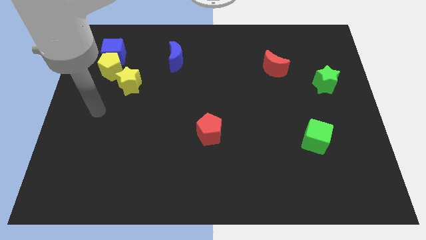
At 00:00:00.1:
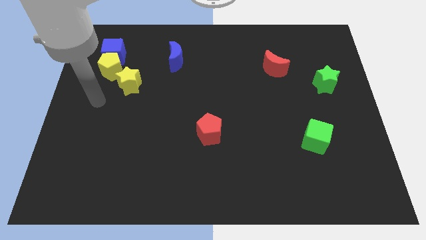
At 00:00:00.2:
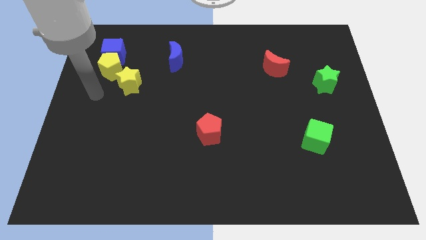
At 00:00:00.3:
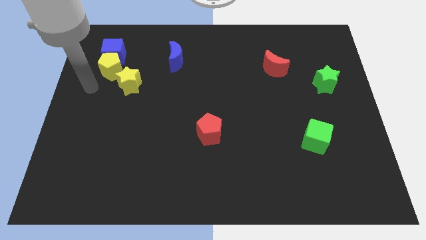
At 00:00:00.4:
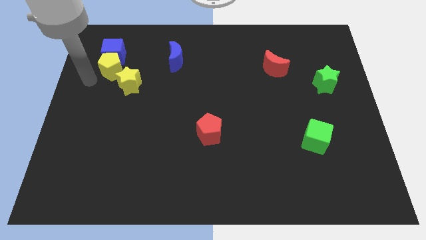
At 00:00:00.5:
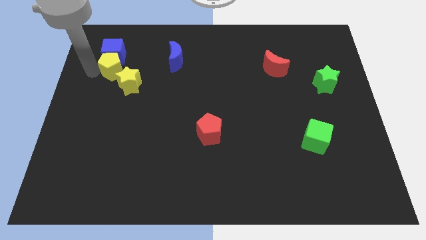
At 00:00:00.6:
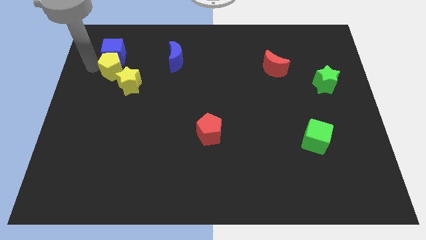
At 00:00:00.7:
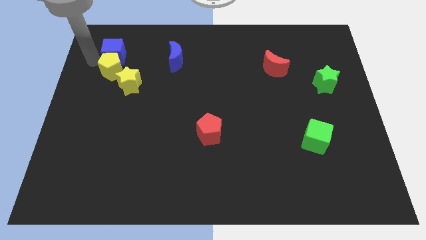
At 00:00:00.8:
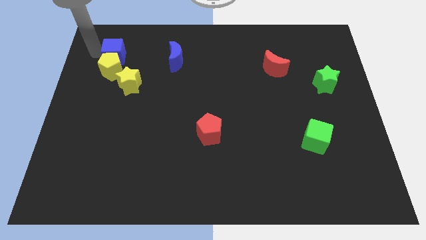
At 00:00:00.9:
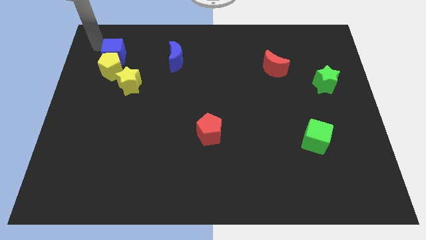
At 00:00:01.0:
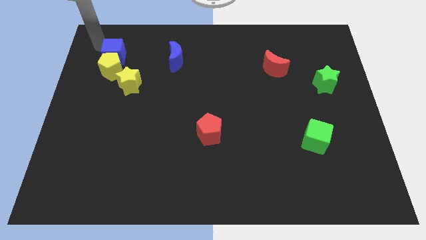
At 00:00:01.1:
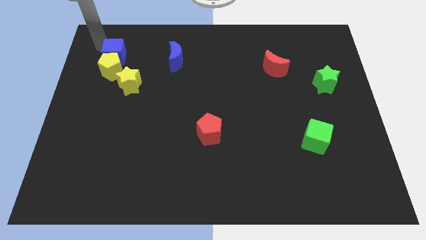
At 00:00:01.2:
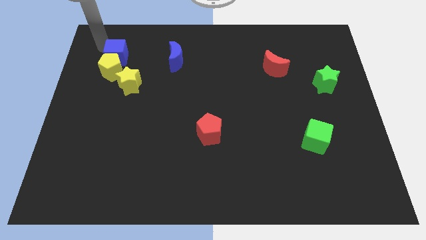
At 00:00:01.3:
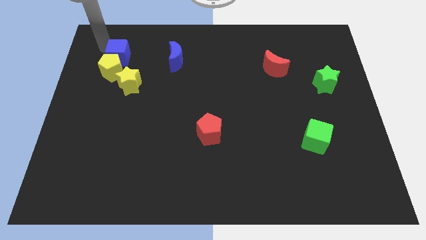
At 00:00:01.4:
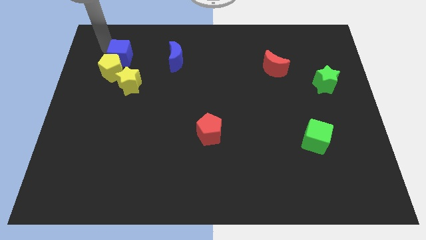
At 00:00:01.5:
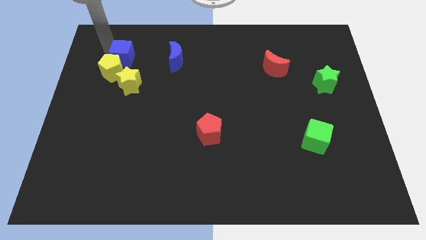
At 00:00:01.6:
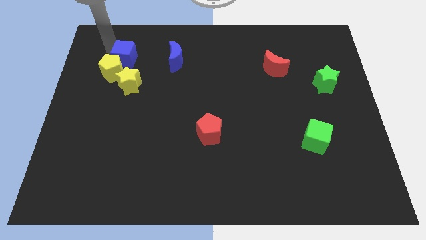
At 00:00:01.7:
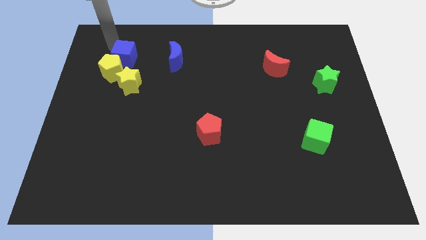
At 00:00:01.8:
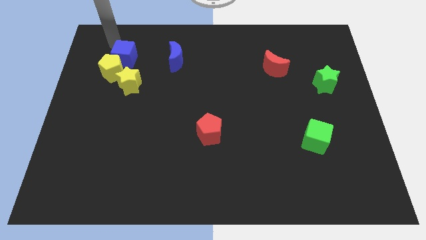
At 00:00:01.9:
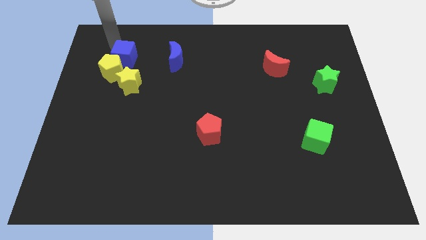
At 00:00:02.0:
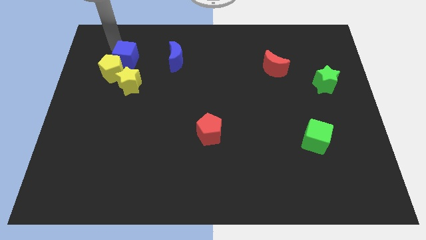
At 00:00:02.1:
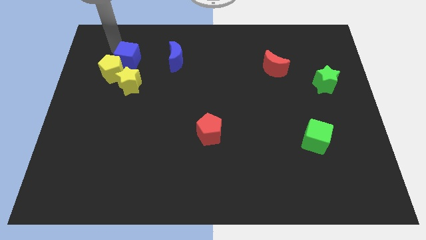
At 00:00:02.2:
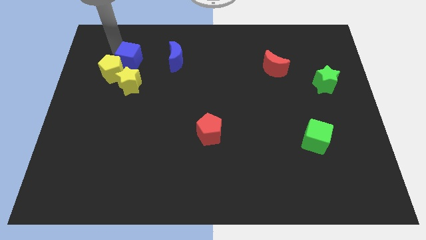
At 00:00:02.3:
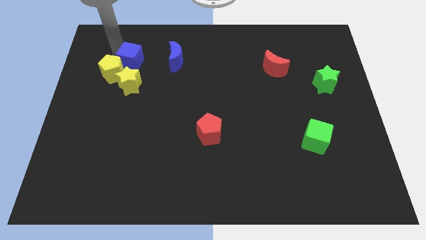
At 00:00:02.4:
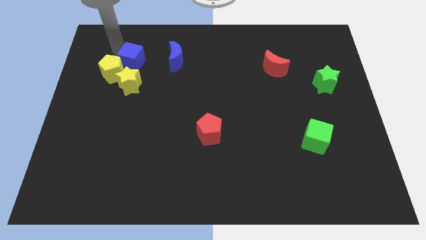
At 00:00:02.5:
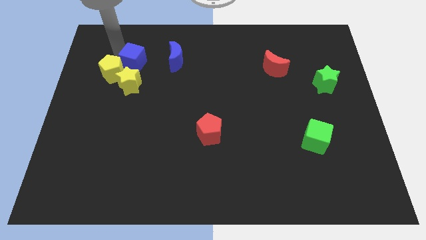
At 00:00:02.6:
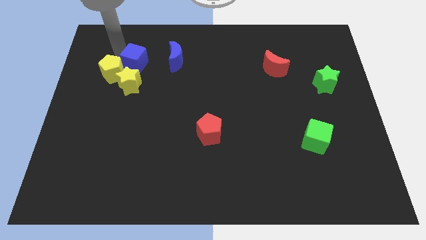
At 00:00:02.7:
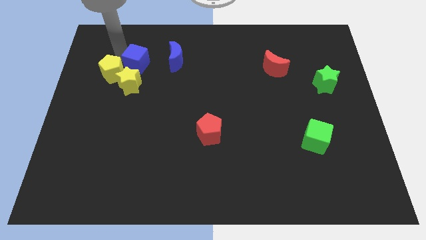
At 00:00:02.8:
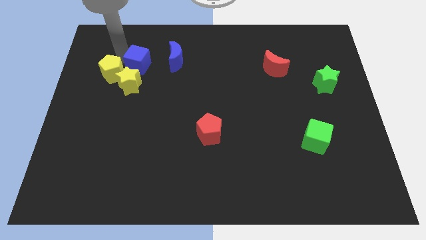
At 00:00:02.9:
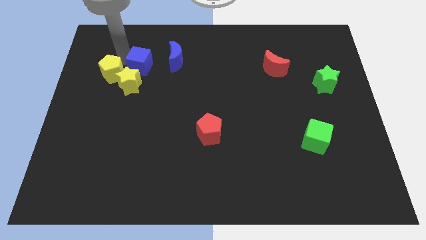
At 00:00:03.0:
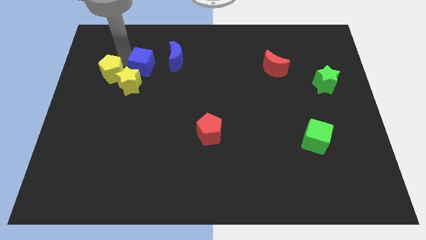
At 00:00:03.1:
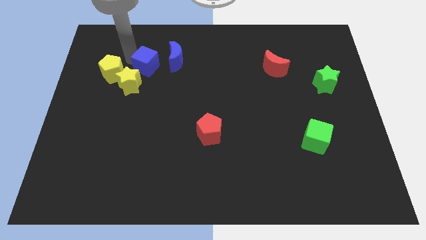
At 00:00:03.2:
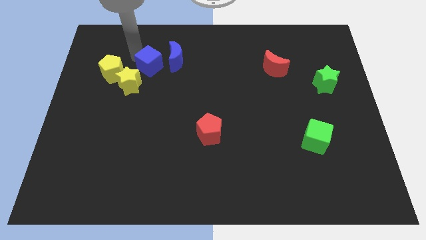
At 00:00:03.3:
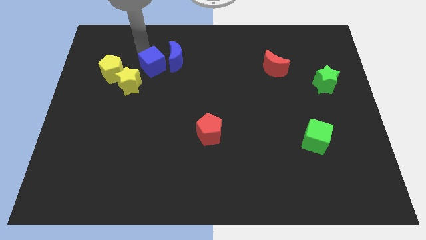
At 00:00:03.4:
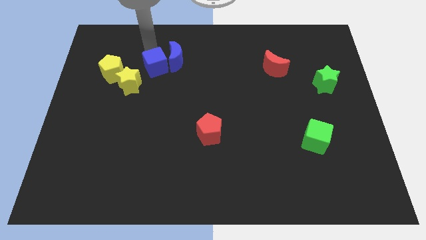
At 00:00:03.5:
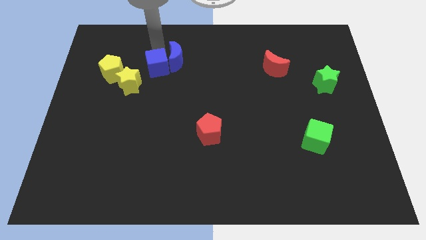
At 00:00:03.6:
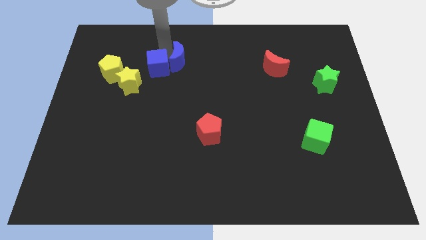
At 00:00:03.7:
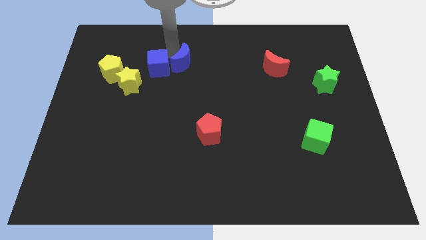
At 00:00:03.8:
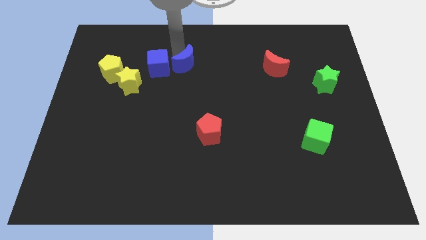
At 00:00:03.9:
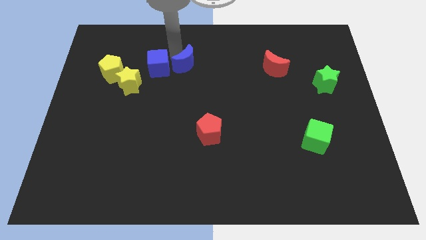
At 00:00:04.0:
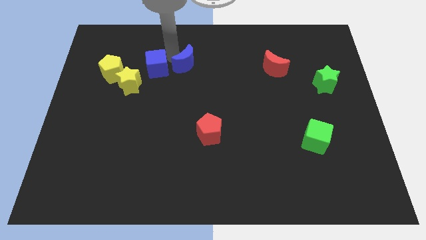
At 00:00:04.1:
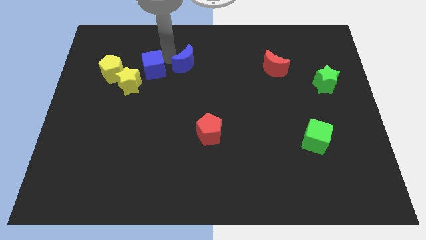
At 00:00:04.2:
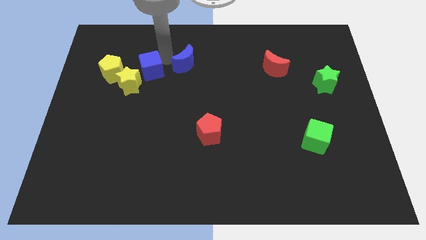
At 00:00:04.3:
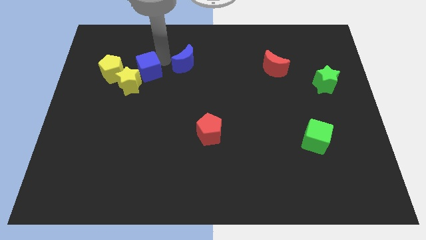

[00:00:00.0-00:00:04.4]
move the blue cube next to the yellow star

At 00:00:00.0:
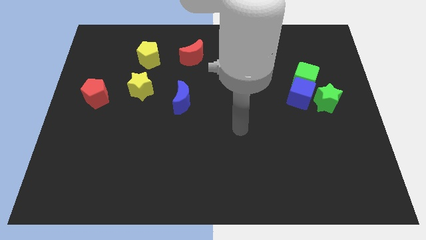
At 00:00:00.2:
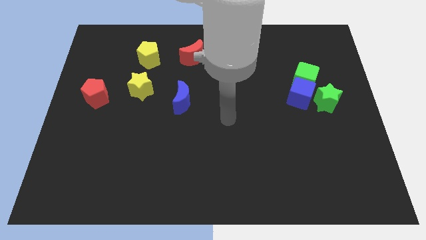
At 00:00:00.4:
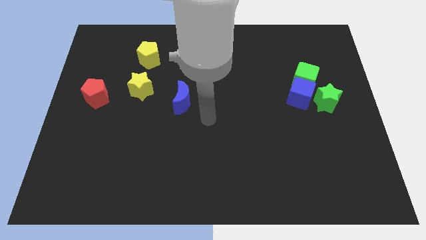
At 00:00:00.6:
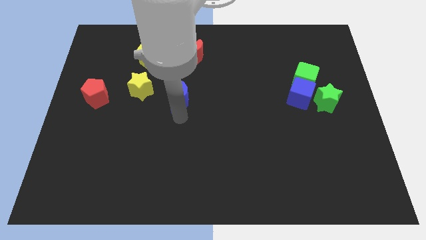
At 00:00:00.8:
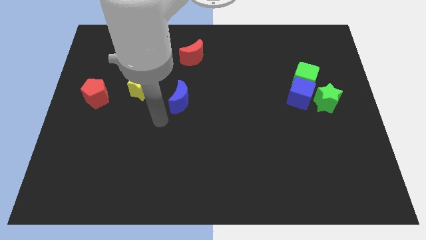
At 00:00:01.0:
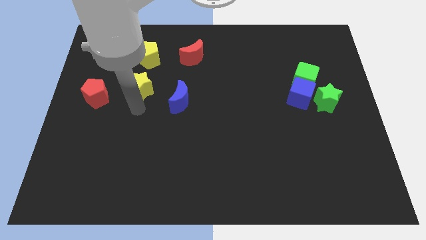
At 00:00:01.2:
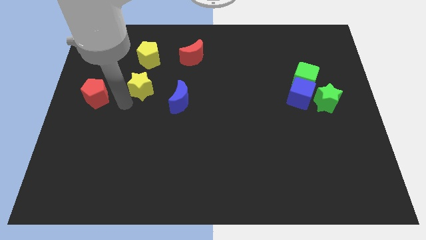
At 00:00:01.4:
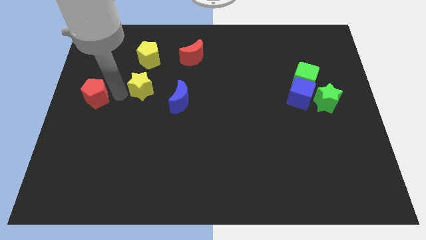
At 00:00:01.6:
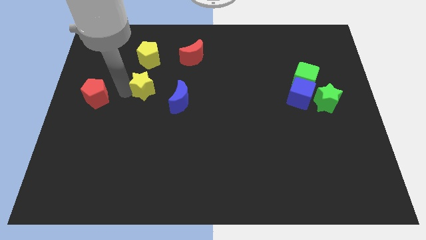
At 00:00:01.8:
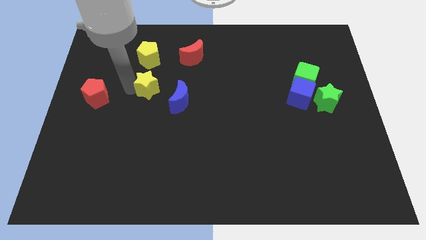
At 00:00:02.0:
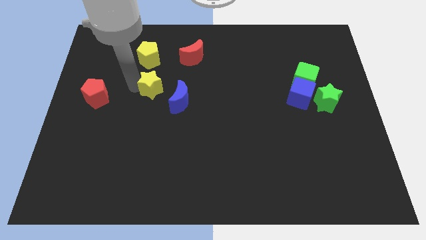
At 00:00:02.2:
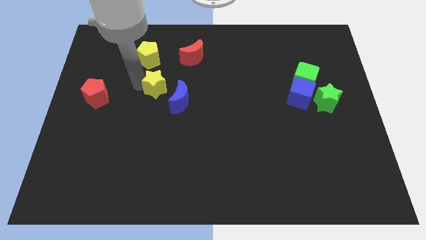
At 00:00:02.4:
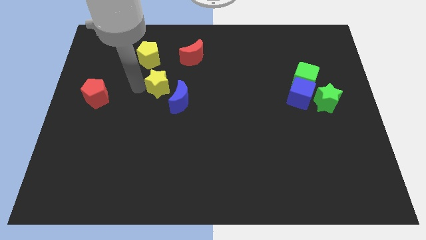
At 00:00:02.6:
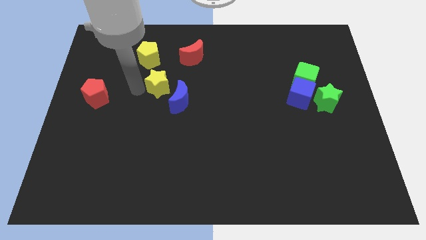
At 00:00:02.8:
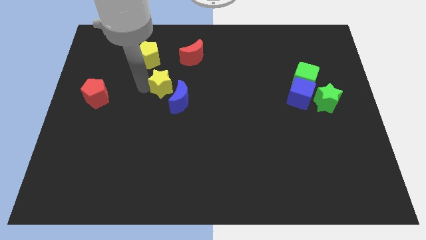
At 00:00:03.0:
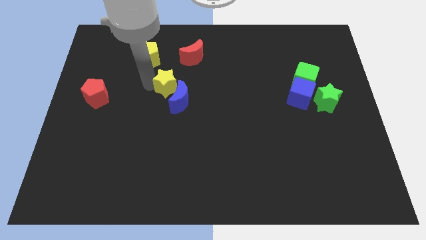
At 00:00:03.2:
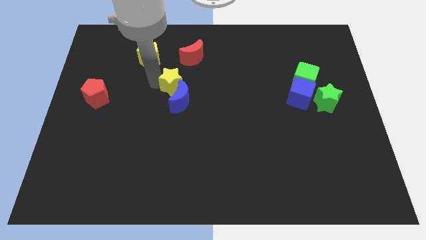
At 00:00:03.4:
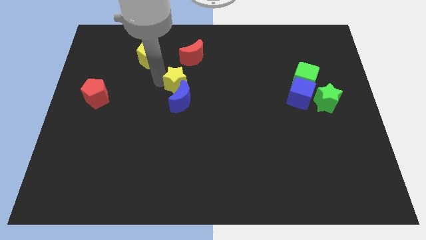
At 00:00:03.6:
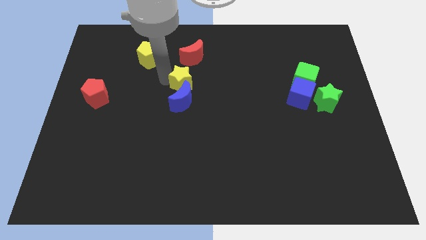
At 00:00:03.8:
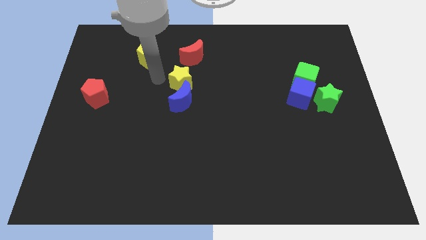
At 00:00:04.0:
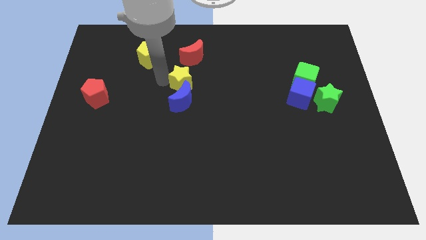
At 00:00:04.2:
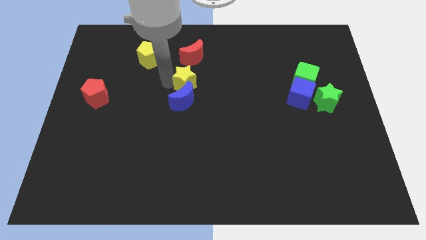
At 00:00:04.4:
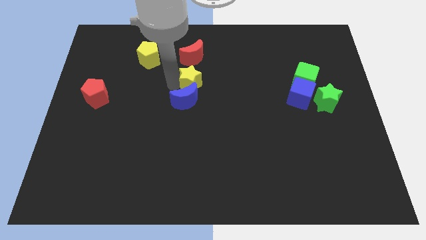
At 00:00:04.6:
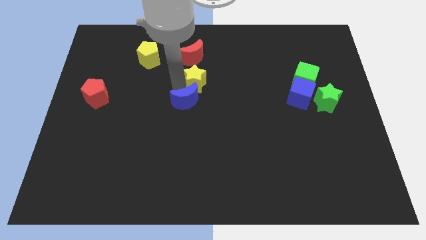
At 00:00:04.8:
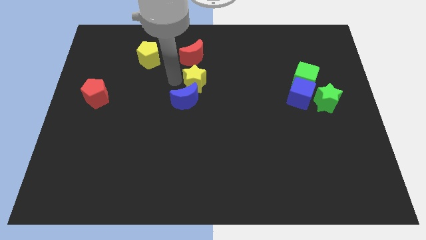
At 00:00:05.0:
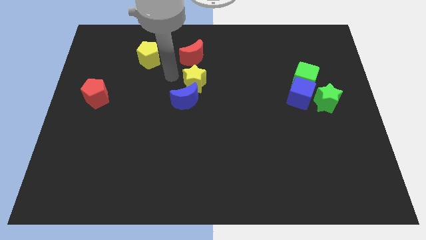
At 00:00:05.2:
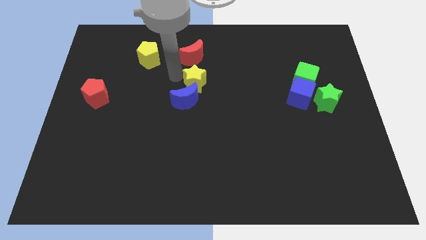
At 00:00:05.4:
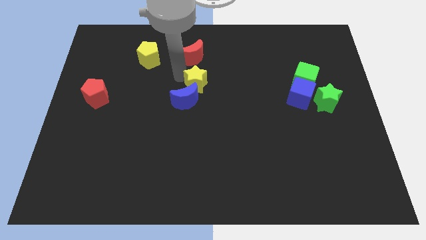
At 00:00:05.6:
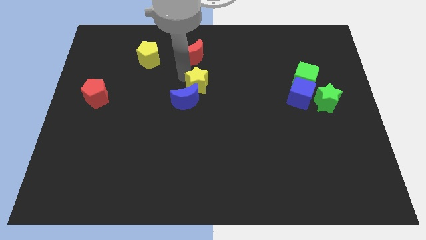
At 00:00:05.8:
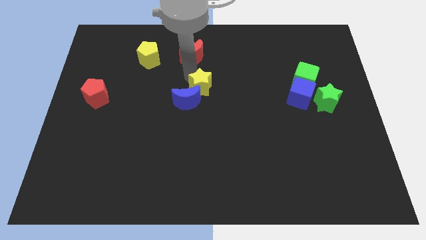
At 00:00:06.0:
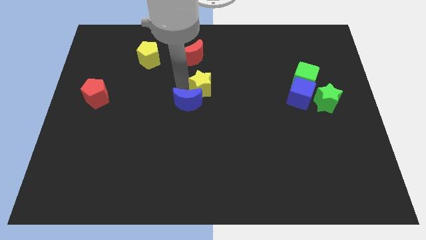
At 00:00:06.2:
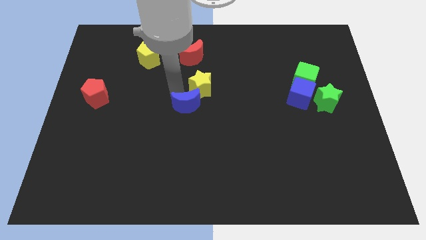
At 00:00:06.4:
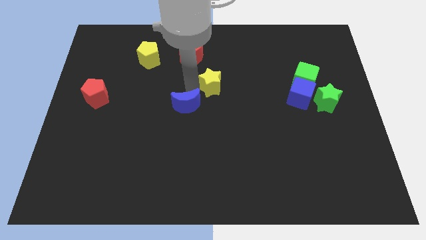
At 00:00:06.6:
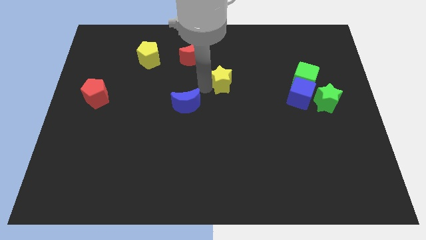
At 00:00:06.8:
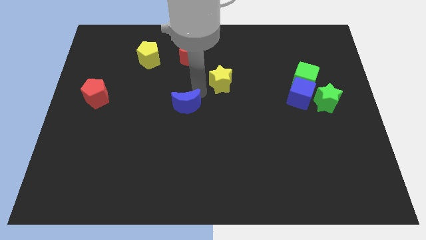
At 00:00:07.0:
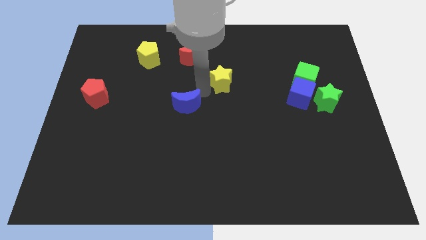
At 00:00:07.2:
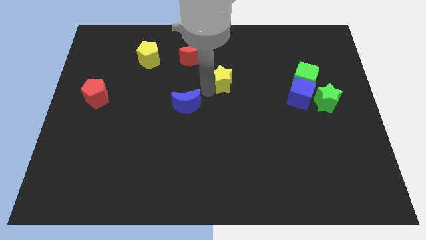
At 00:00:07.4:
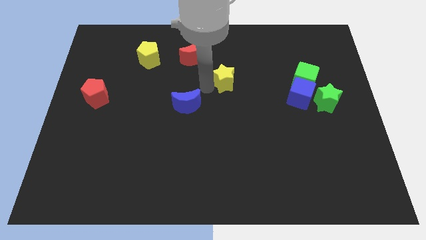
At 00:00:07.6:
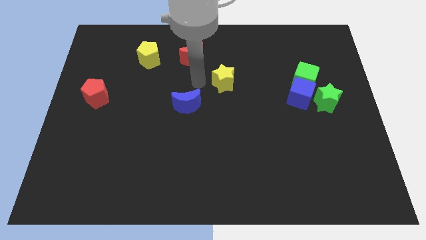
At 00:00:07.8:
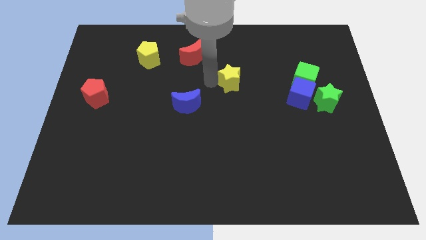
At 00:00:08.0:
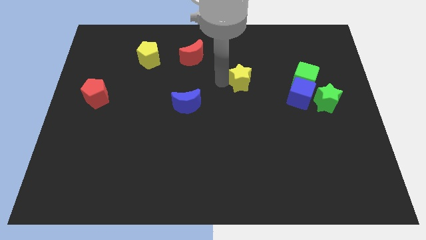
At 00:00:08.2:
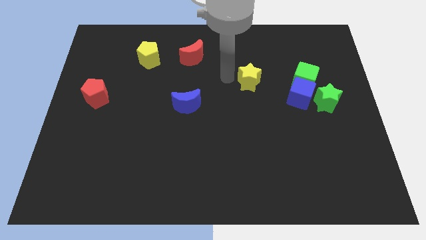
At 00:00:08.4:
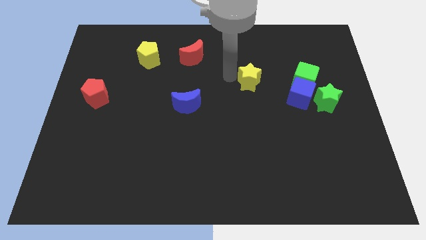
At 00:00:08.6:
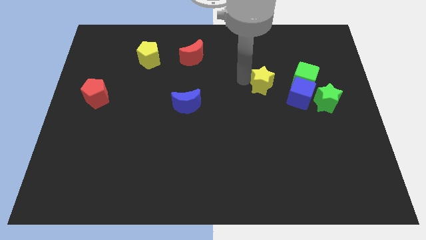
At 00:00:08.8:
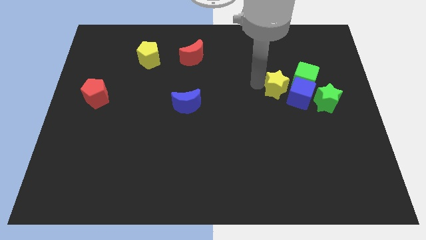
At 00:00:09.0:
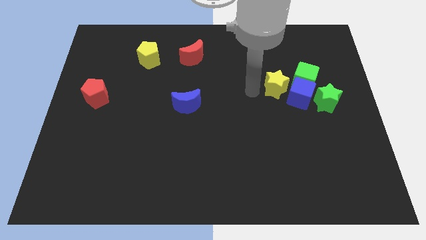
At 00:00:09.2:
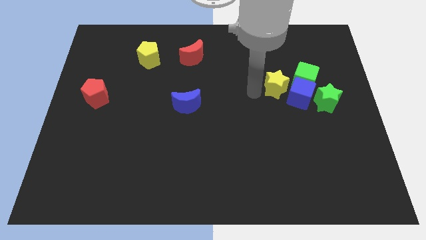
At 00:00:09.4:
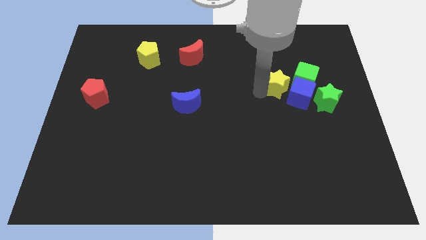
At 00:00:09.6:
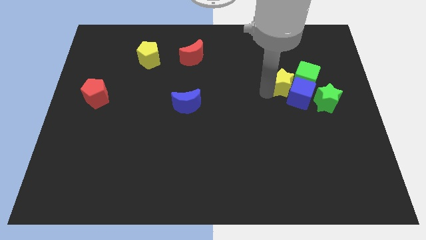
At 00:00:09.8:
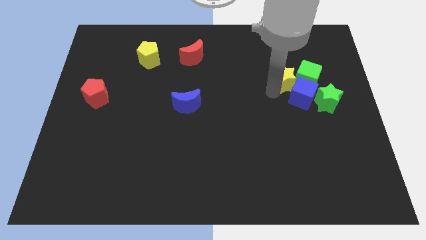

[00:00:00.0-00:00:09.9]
move the yellow star to the green cube
